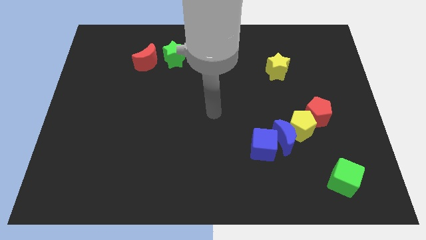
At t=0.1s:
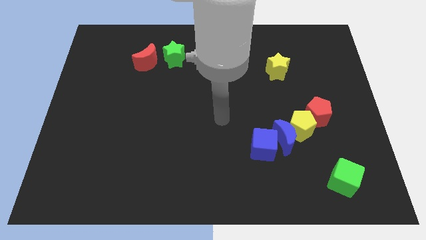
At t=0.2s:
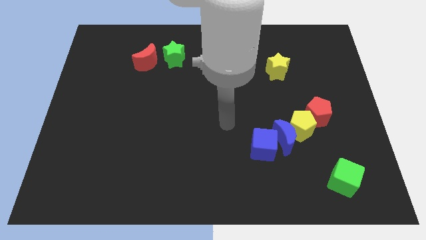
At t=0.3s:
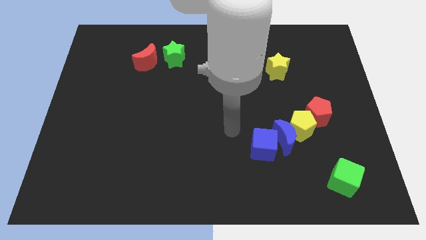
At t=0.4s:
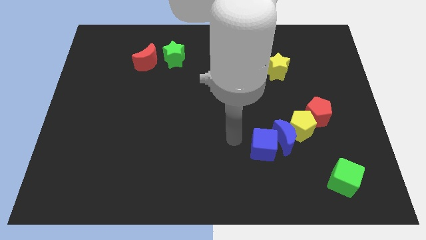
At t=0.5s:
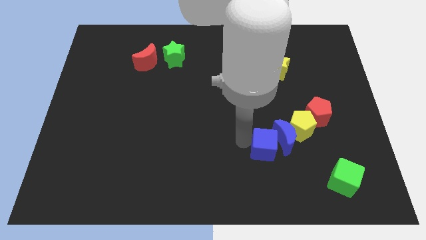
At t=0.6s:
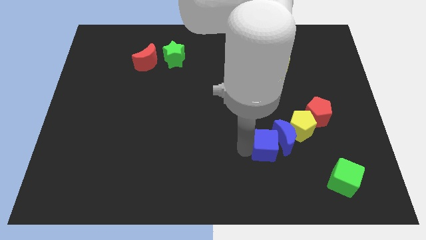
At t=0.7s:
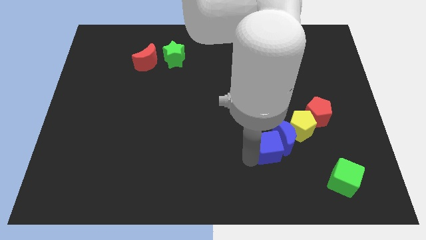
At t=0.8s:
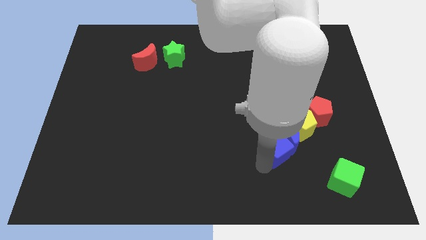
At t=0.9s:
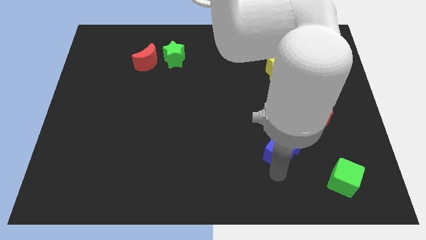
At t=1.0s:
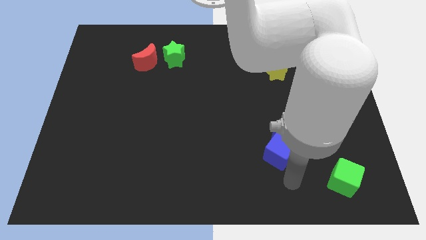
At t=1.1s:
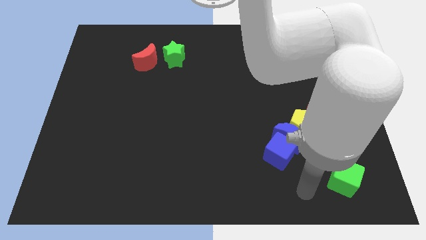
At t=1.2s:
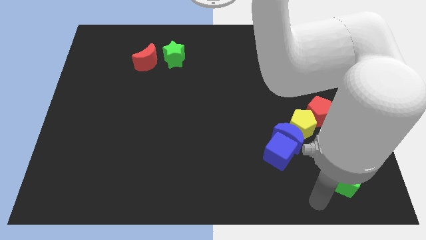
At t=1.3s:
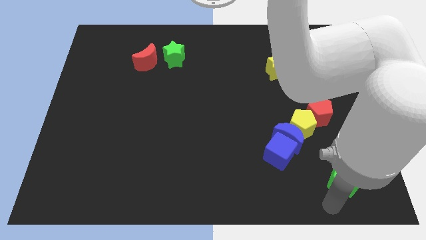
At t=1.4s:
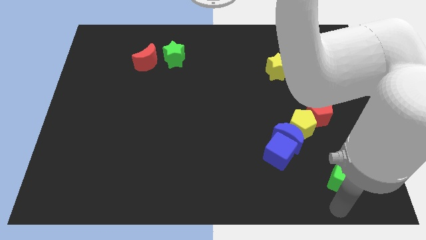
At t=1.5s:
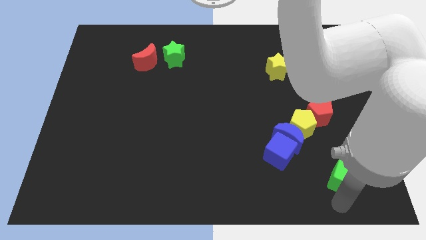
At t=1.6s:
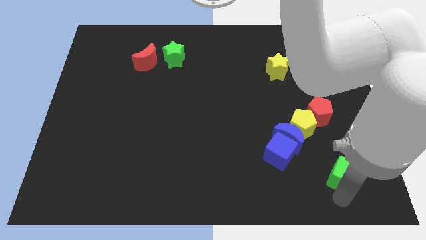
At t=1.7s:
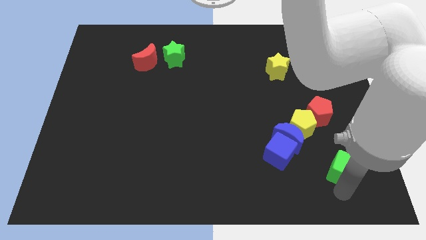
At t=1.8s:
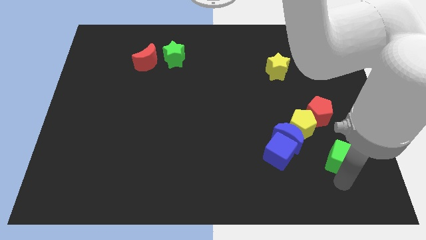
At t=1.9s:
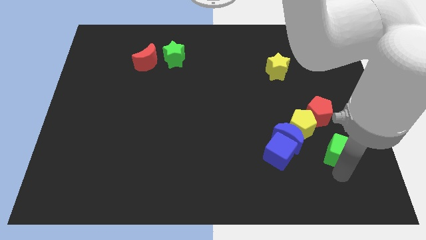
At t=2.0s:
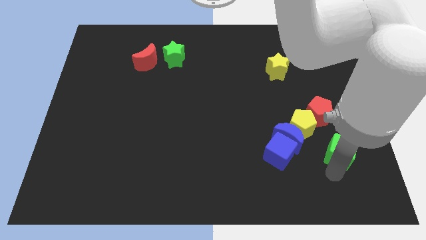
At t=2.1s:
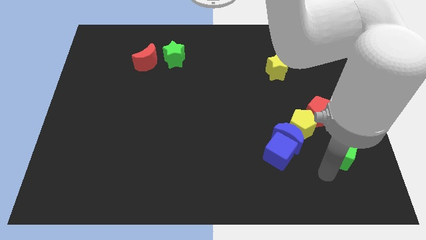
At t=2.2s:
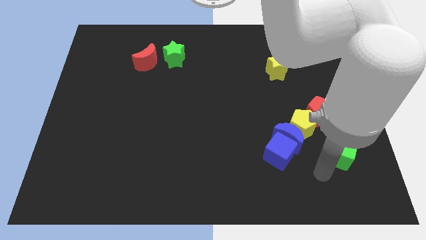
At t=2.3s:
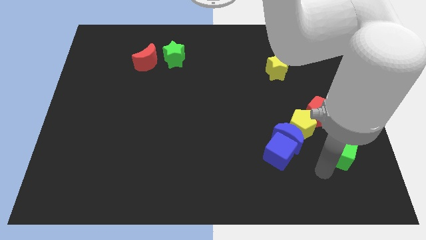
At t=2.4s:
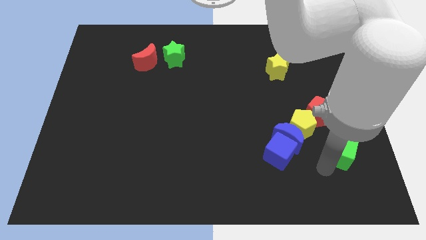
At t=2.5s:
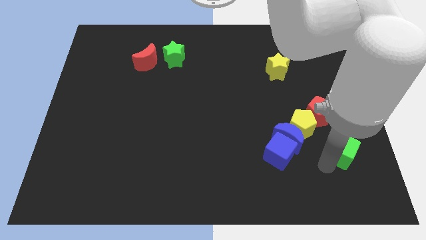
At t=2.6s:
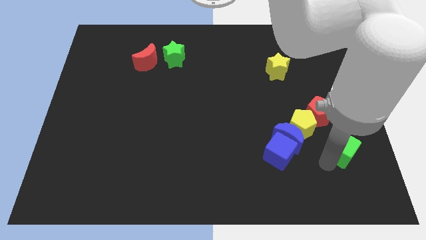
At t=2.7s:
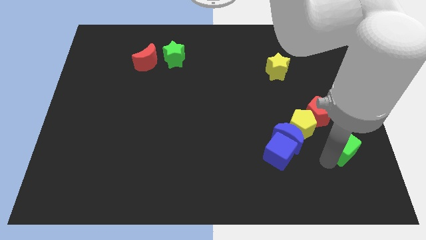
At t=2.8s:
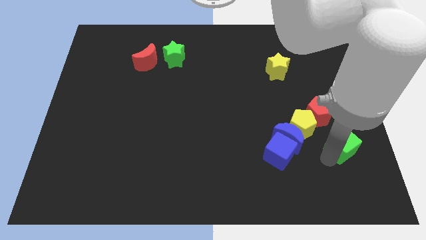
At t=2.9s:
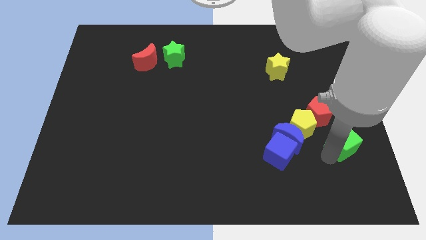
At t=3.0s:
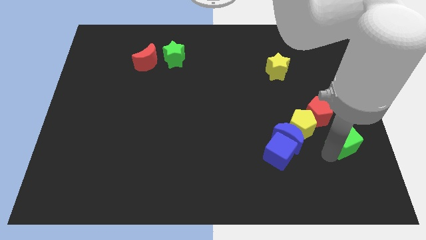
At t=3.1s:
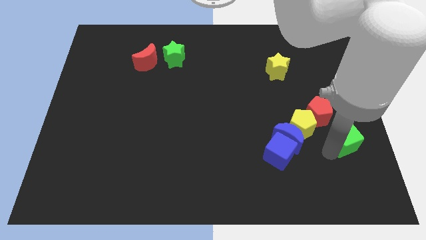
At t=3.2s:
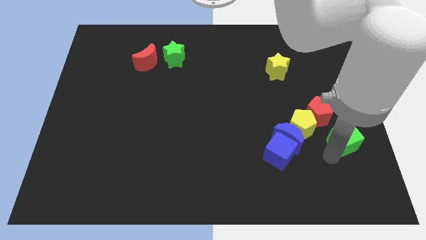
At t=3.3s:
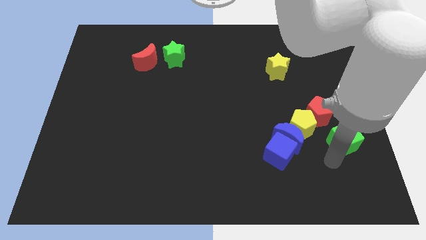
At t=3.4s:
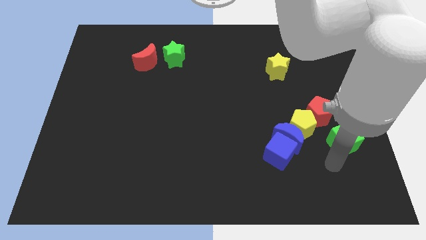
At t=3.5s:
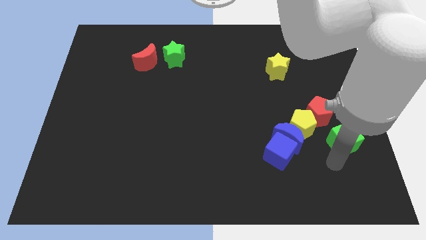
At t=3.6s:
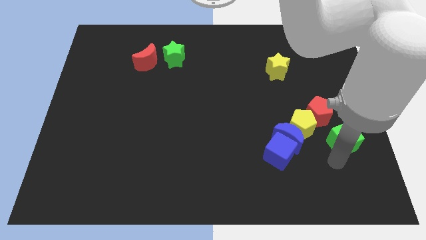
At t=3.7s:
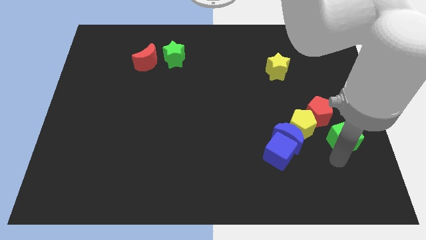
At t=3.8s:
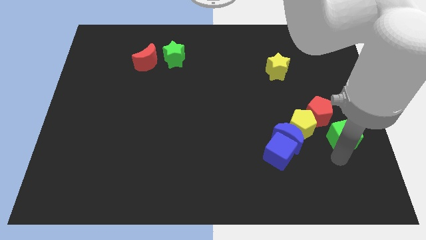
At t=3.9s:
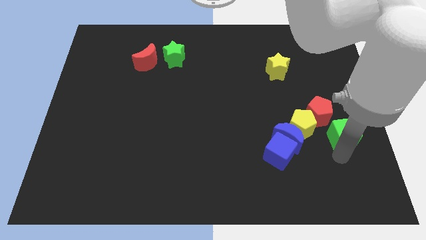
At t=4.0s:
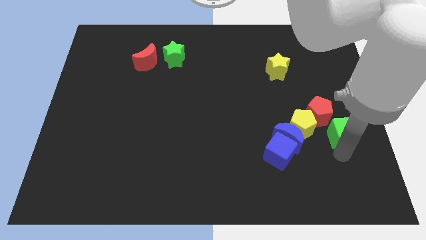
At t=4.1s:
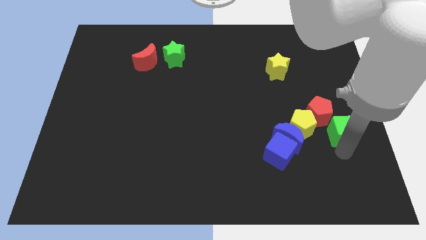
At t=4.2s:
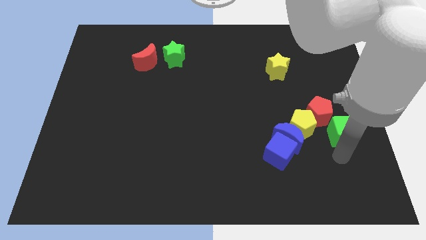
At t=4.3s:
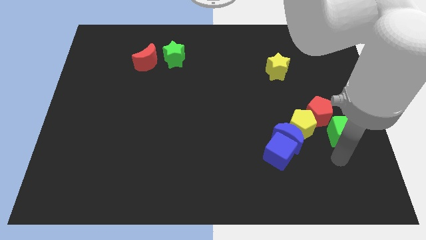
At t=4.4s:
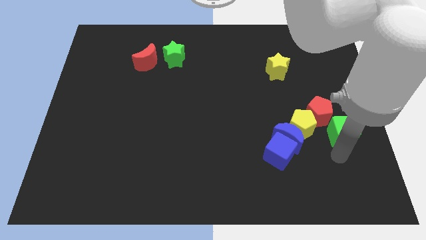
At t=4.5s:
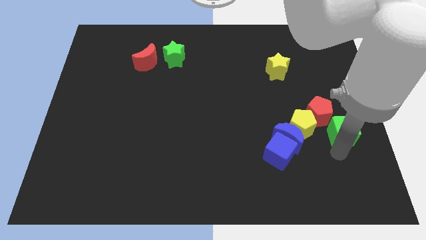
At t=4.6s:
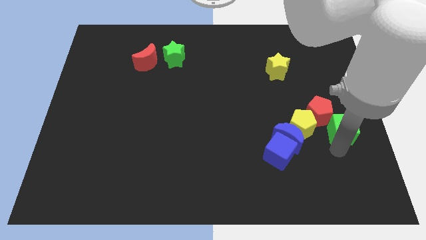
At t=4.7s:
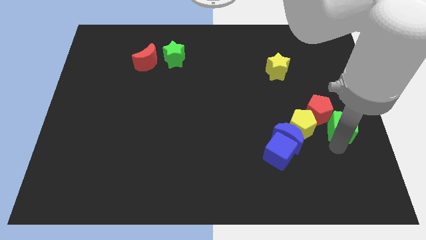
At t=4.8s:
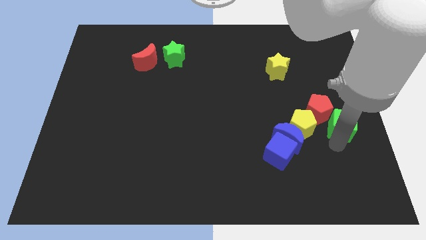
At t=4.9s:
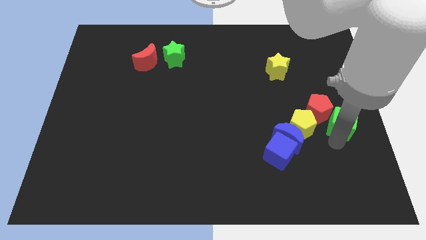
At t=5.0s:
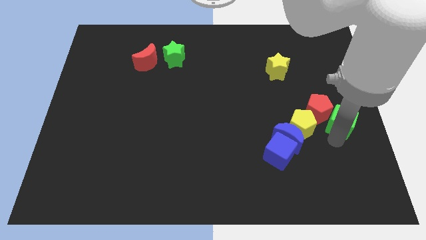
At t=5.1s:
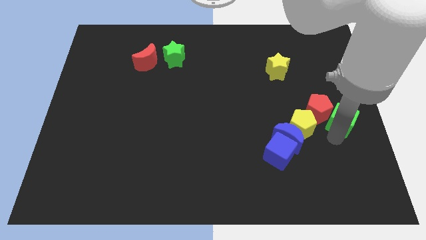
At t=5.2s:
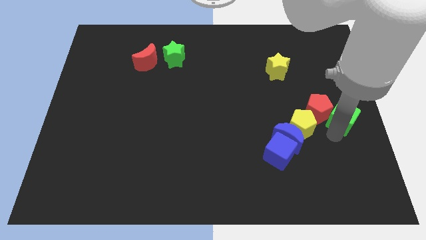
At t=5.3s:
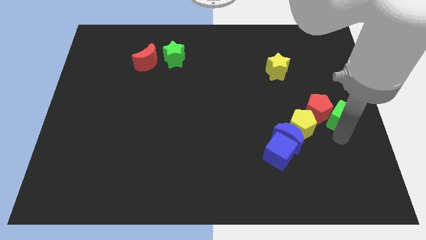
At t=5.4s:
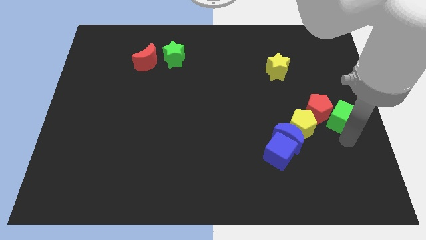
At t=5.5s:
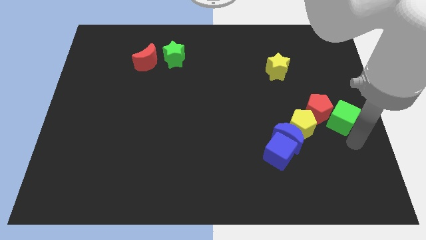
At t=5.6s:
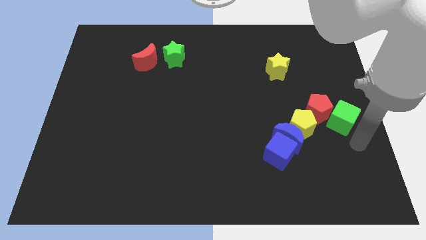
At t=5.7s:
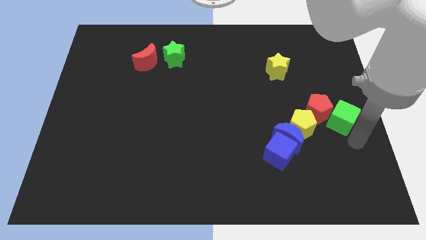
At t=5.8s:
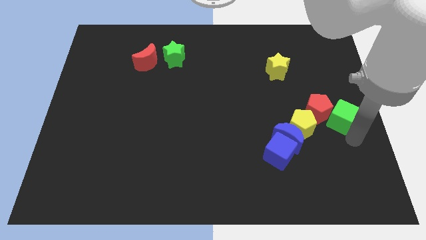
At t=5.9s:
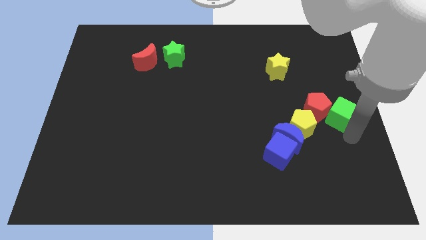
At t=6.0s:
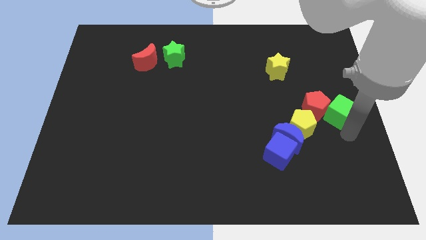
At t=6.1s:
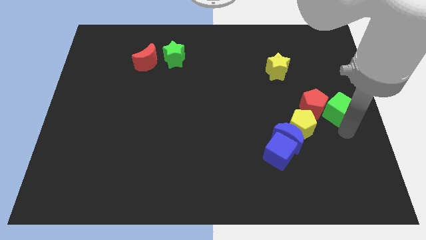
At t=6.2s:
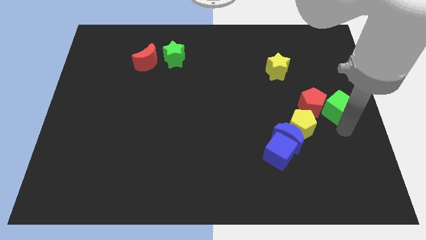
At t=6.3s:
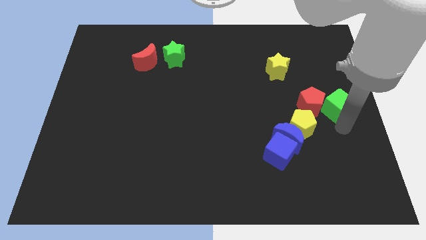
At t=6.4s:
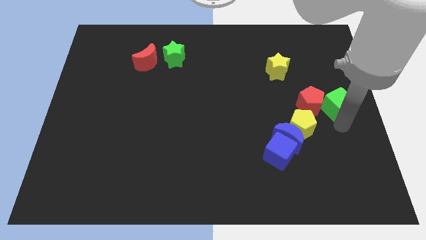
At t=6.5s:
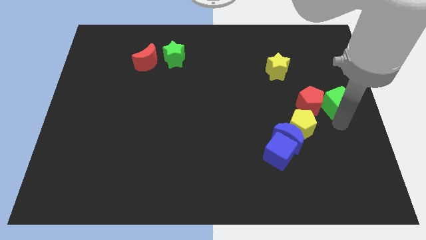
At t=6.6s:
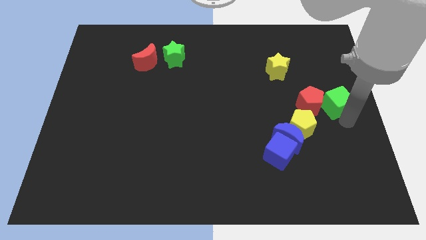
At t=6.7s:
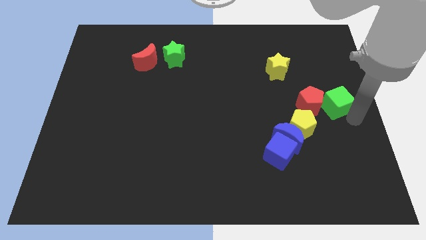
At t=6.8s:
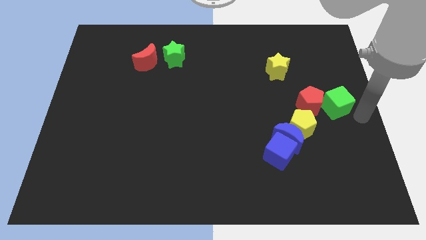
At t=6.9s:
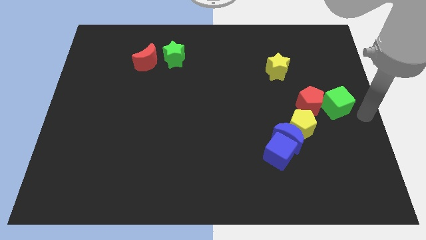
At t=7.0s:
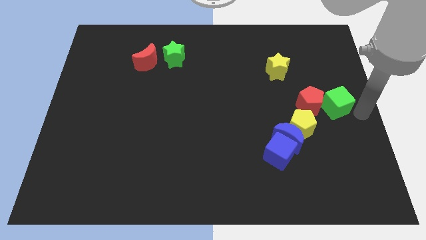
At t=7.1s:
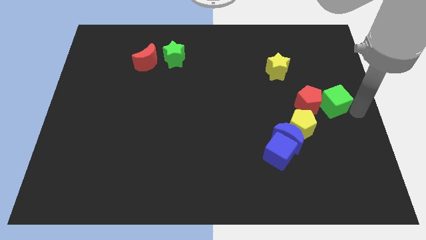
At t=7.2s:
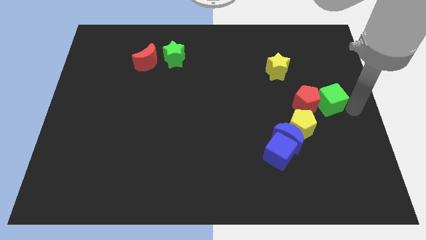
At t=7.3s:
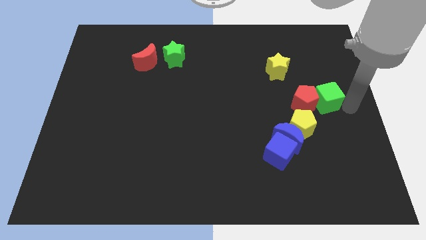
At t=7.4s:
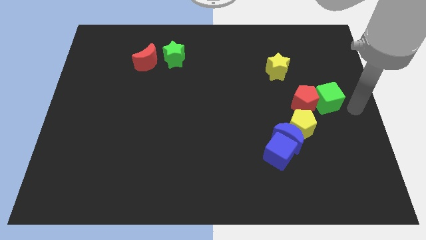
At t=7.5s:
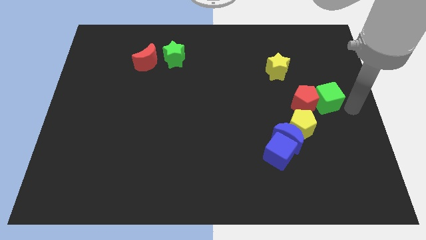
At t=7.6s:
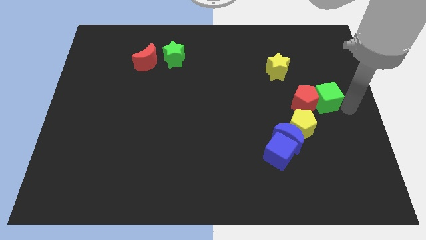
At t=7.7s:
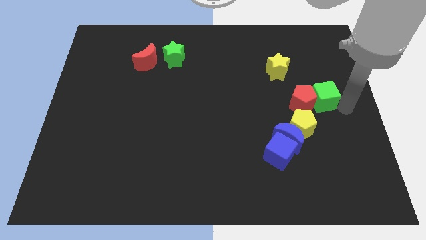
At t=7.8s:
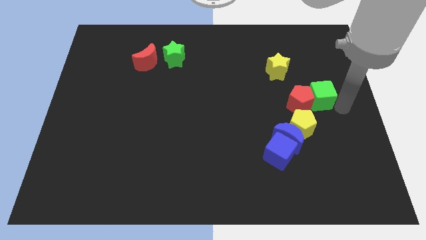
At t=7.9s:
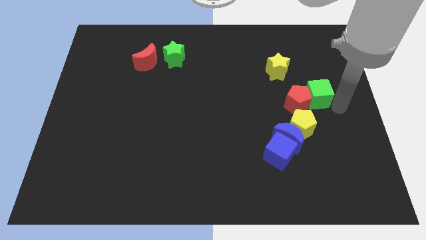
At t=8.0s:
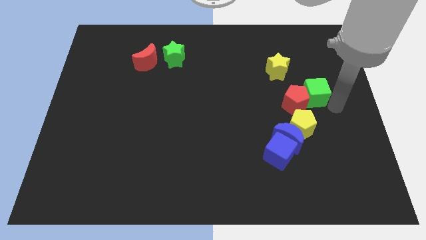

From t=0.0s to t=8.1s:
slide the green cube to the top of the yellow pentagon
